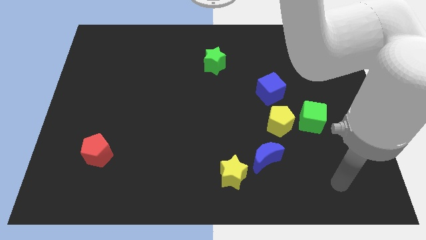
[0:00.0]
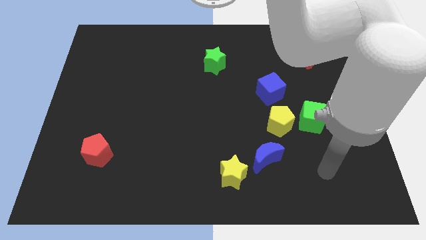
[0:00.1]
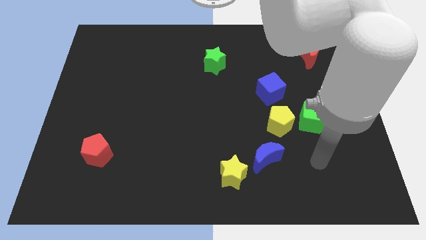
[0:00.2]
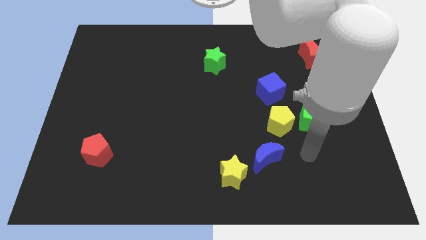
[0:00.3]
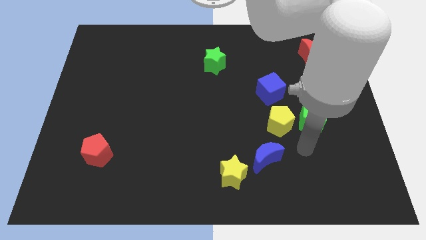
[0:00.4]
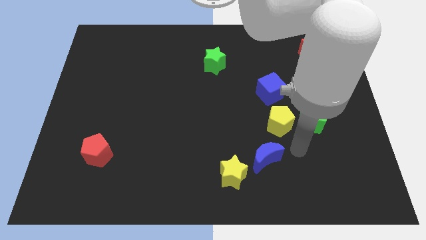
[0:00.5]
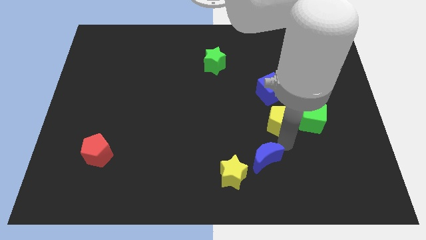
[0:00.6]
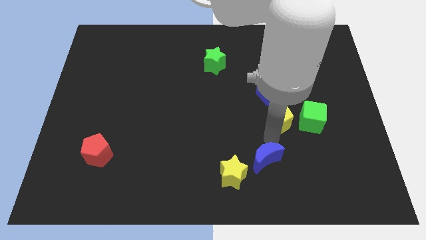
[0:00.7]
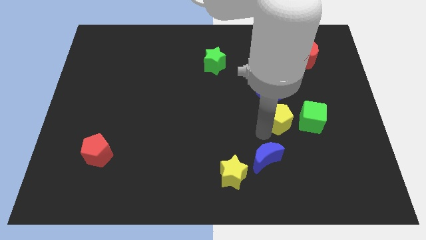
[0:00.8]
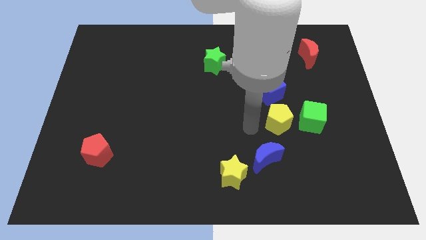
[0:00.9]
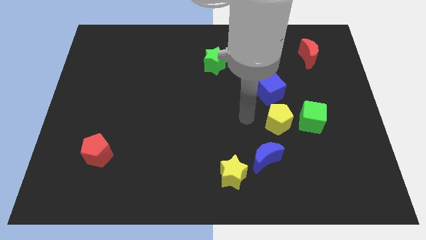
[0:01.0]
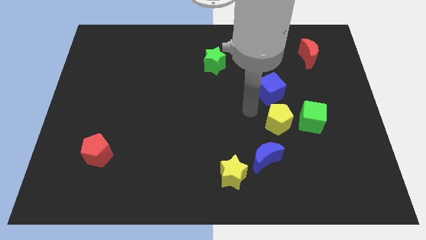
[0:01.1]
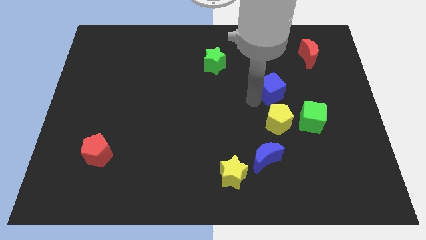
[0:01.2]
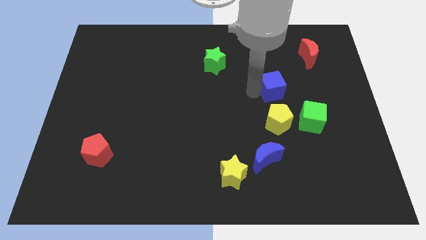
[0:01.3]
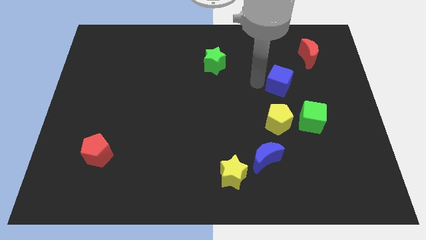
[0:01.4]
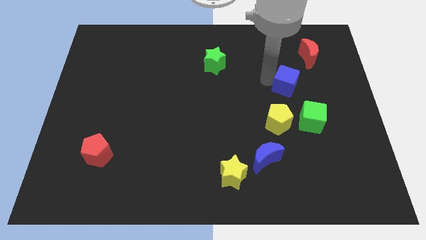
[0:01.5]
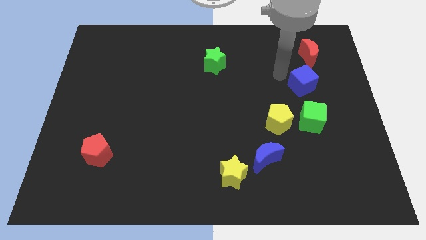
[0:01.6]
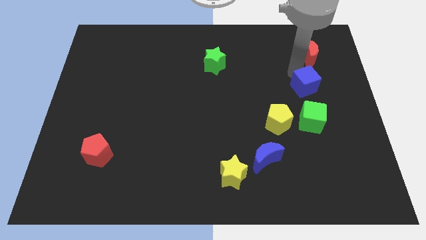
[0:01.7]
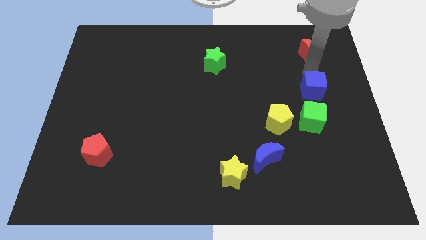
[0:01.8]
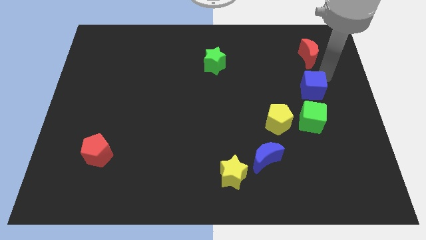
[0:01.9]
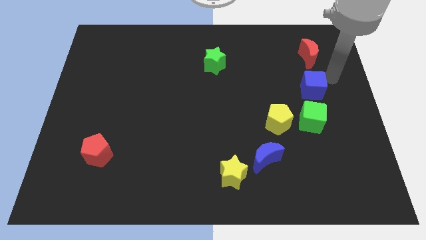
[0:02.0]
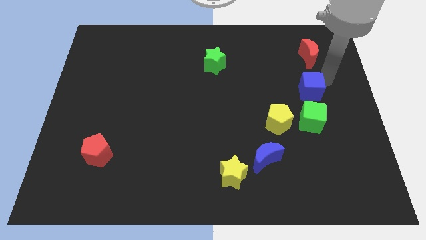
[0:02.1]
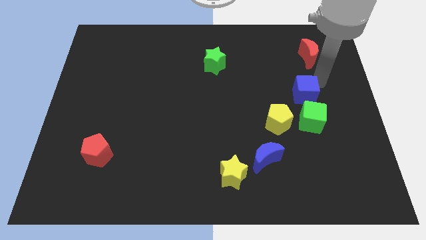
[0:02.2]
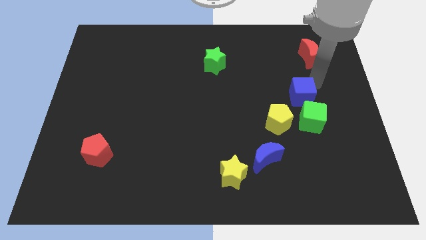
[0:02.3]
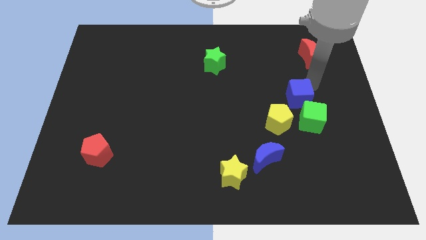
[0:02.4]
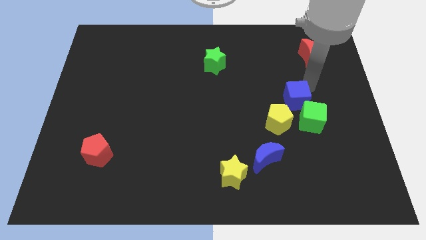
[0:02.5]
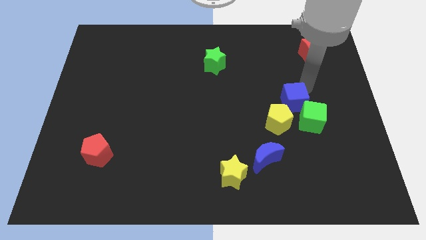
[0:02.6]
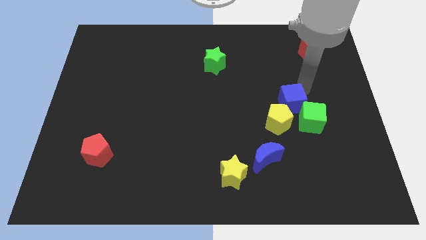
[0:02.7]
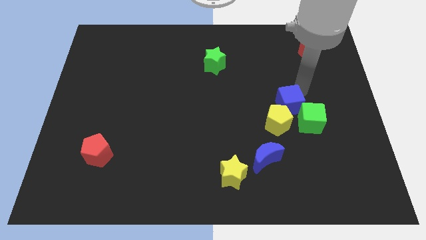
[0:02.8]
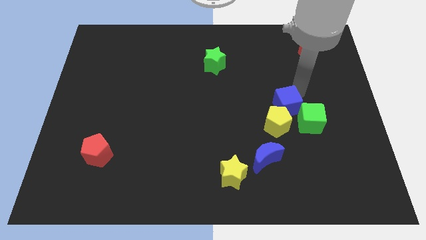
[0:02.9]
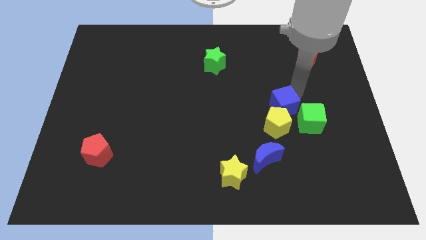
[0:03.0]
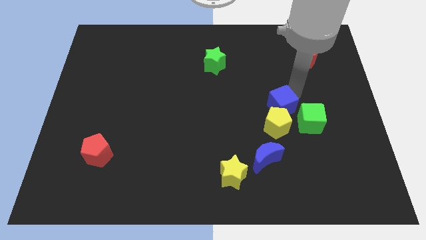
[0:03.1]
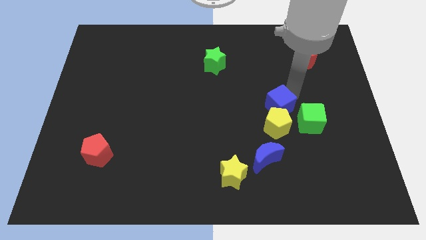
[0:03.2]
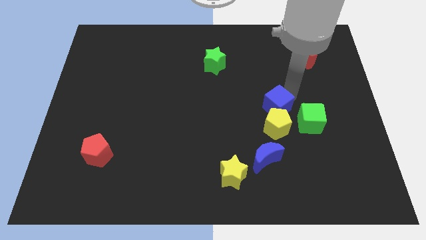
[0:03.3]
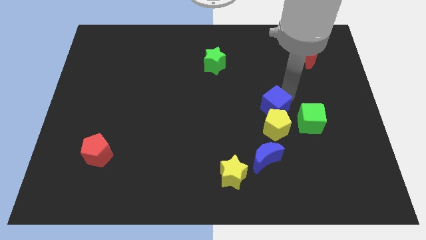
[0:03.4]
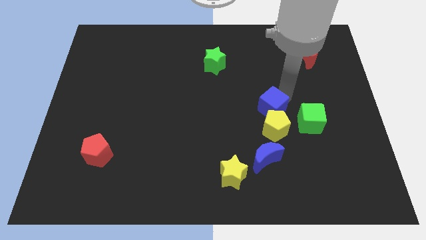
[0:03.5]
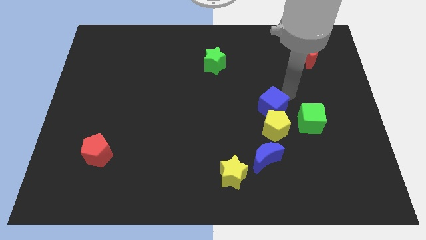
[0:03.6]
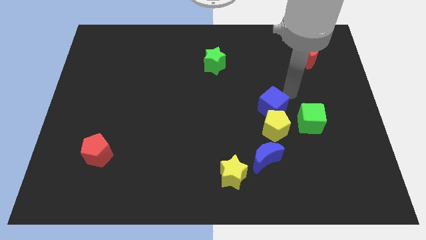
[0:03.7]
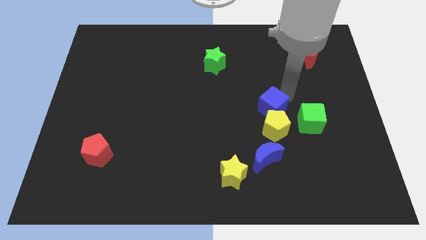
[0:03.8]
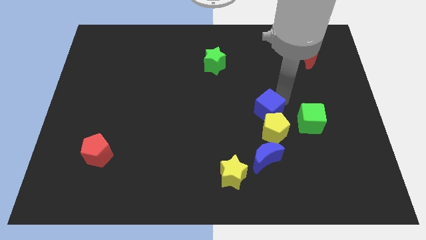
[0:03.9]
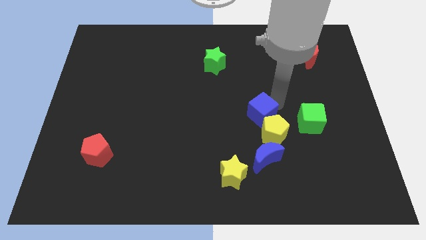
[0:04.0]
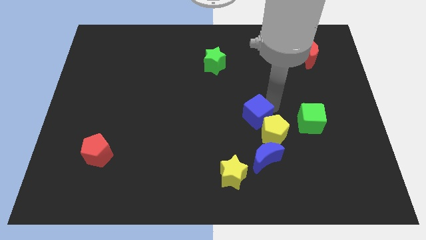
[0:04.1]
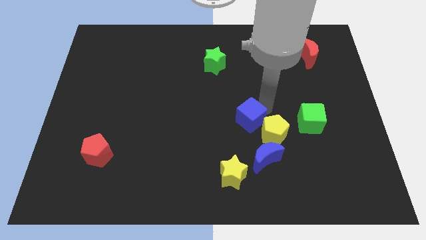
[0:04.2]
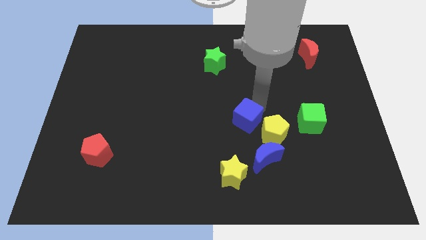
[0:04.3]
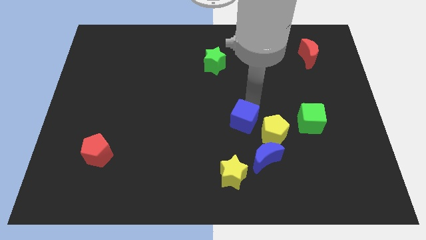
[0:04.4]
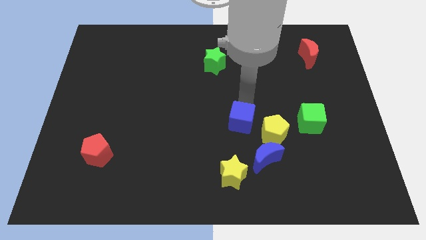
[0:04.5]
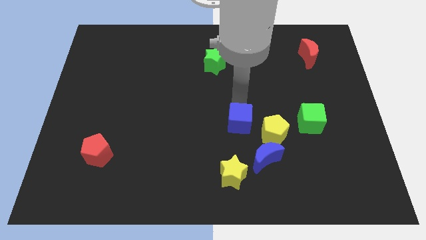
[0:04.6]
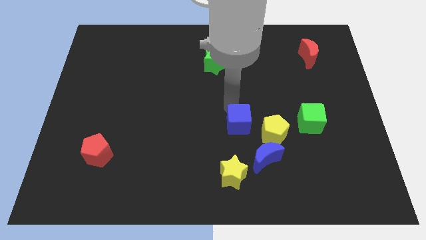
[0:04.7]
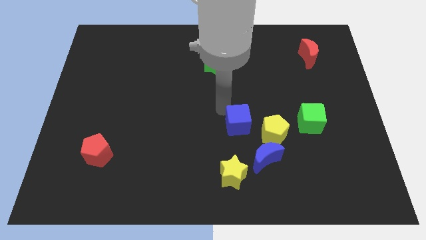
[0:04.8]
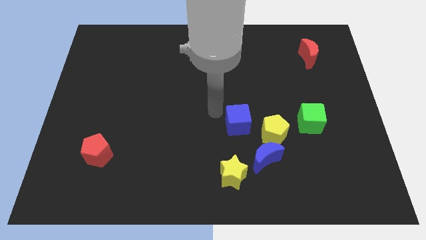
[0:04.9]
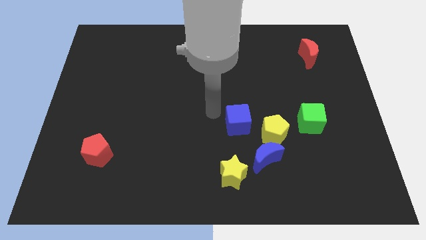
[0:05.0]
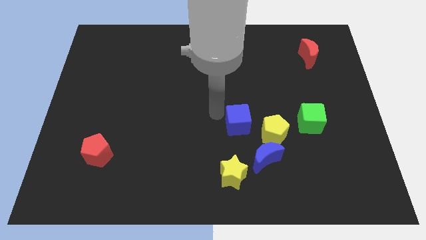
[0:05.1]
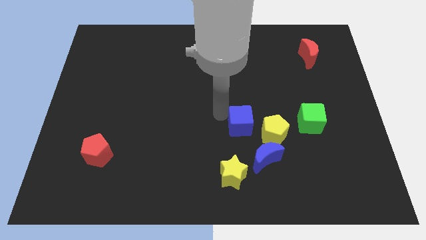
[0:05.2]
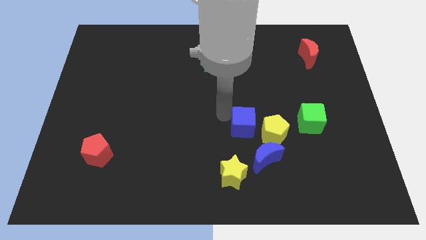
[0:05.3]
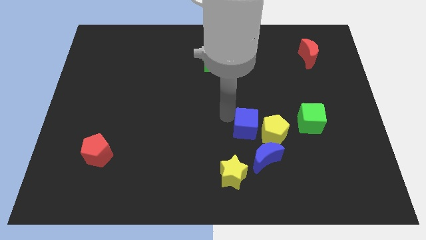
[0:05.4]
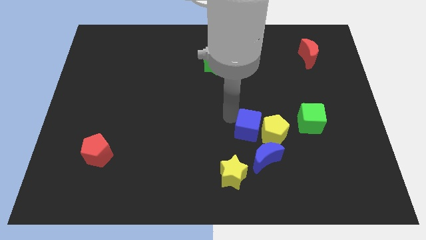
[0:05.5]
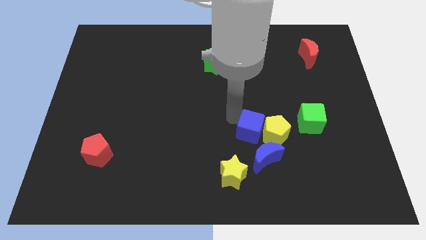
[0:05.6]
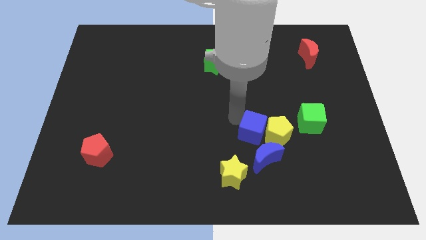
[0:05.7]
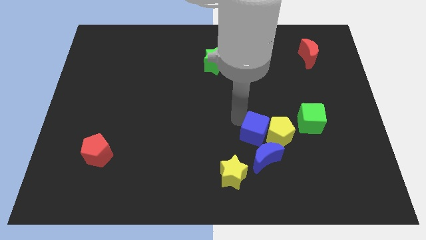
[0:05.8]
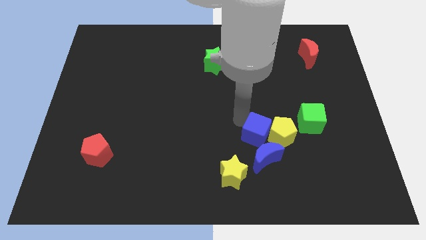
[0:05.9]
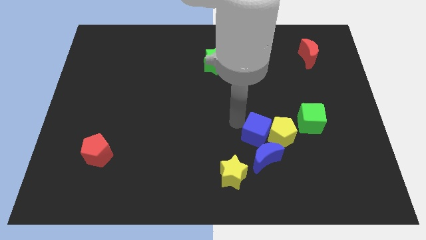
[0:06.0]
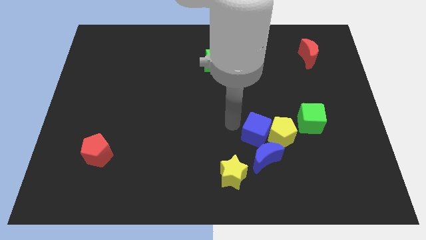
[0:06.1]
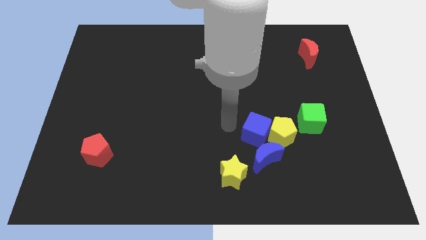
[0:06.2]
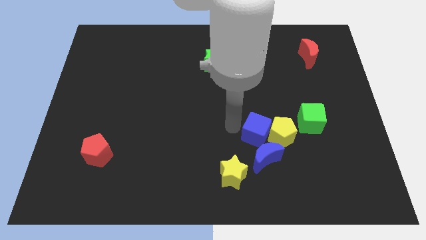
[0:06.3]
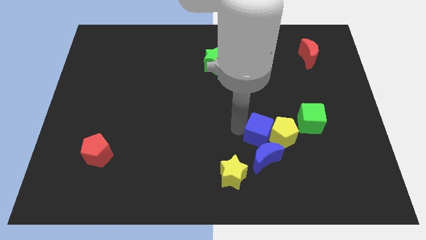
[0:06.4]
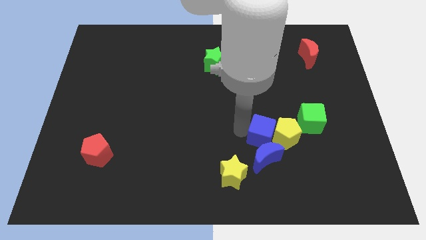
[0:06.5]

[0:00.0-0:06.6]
slide the blue cube to the top right side of the blue moon
